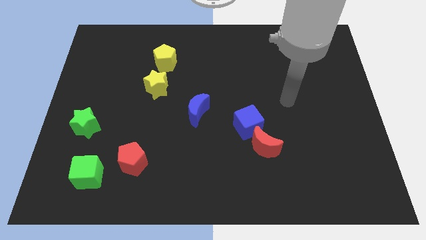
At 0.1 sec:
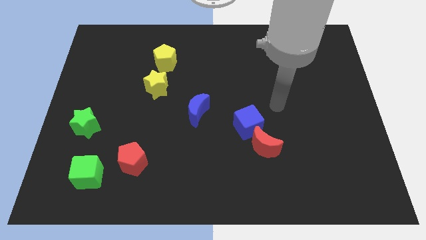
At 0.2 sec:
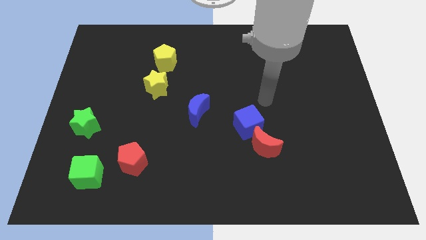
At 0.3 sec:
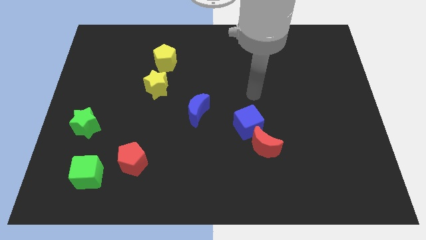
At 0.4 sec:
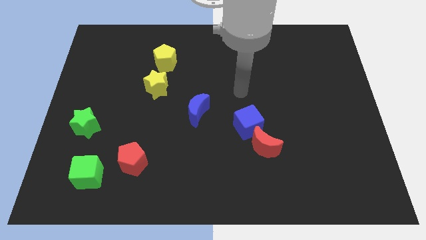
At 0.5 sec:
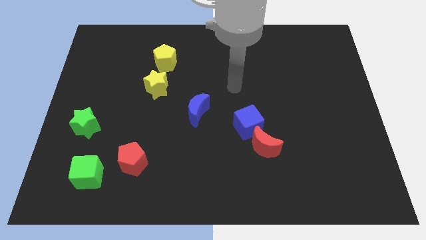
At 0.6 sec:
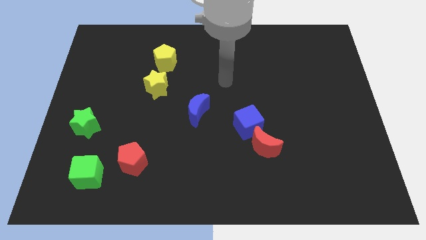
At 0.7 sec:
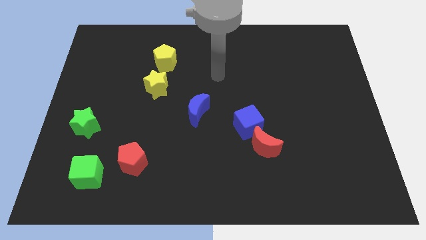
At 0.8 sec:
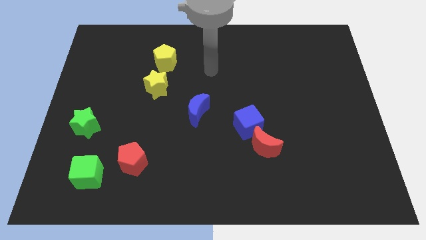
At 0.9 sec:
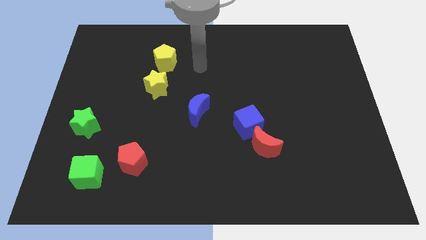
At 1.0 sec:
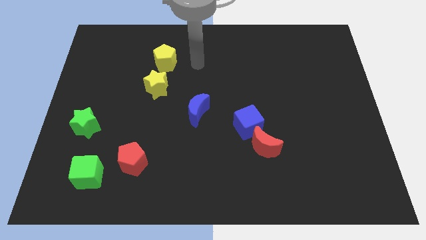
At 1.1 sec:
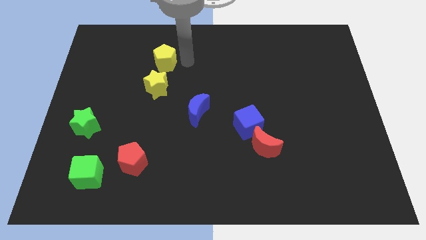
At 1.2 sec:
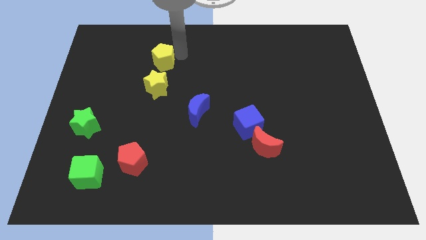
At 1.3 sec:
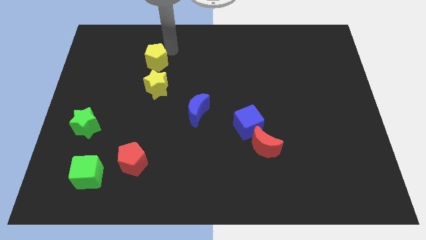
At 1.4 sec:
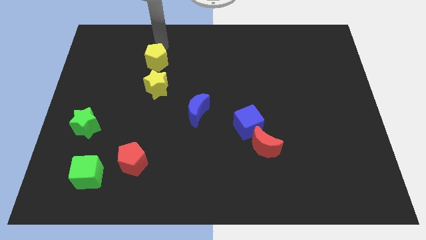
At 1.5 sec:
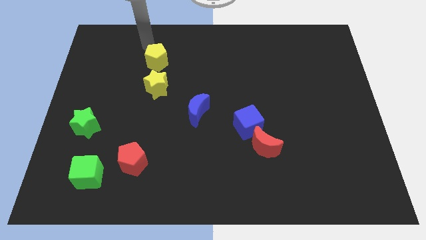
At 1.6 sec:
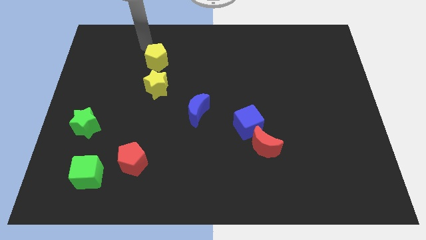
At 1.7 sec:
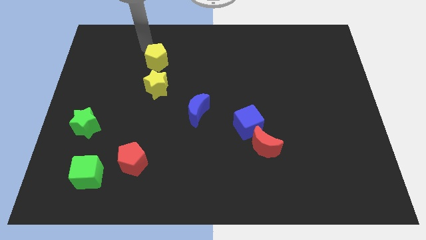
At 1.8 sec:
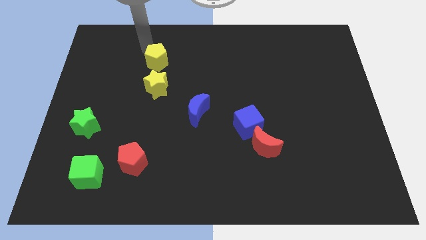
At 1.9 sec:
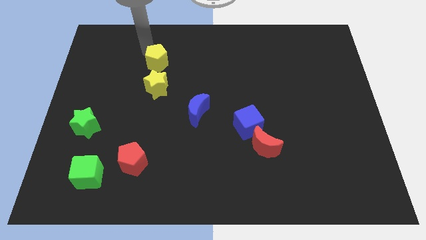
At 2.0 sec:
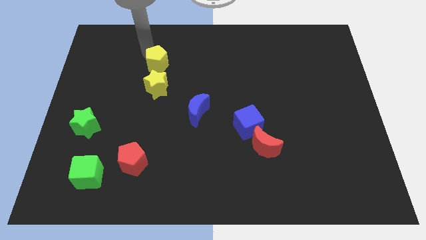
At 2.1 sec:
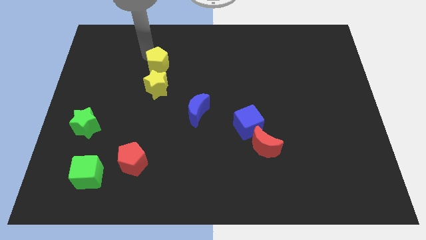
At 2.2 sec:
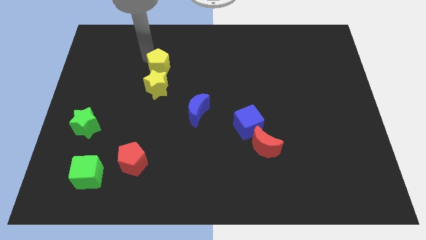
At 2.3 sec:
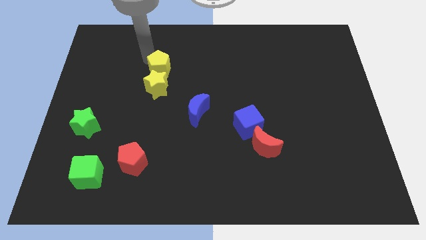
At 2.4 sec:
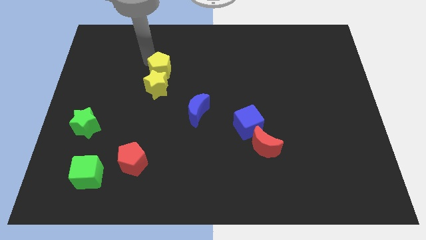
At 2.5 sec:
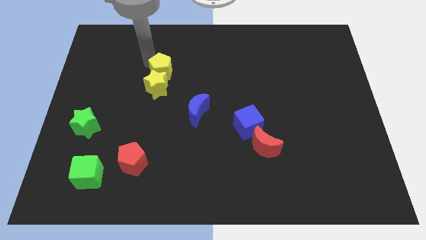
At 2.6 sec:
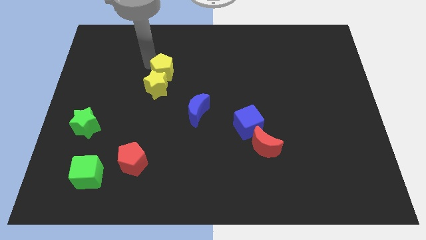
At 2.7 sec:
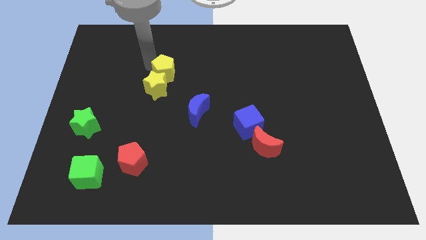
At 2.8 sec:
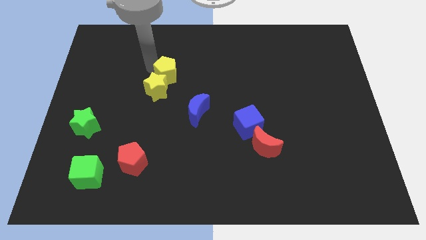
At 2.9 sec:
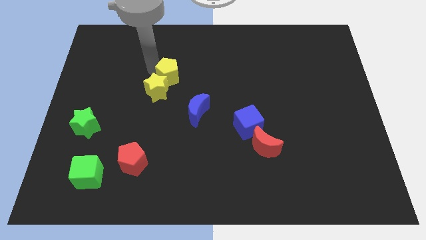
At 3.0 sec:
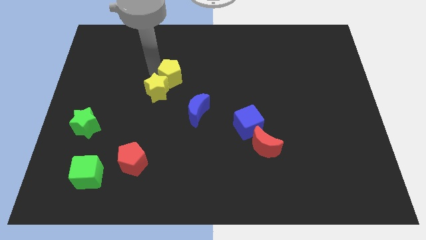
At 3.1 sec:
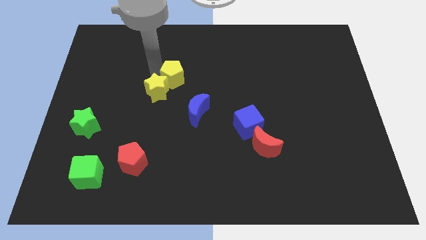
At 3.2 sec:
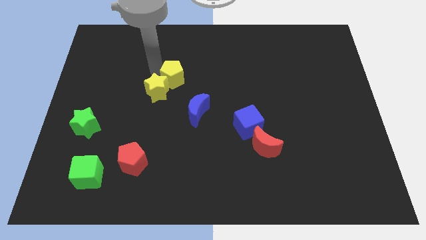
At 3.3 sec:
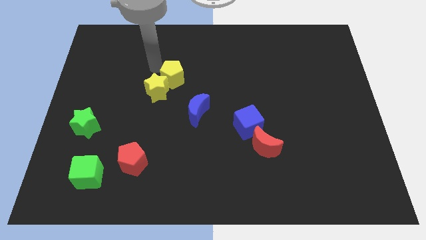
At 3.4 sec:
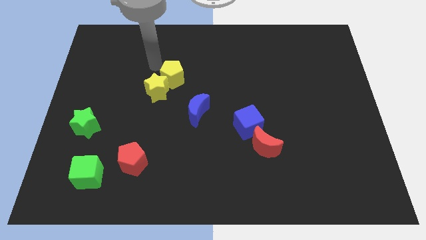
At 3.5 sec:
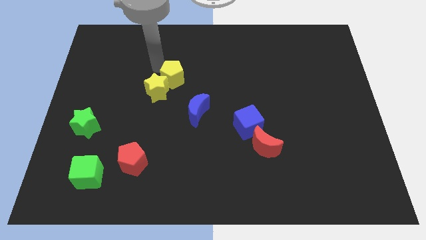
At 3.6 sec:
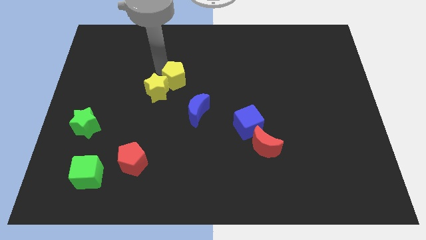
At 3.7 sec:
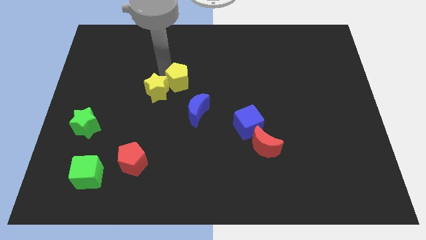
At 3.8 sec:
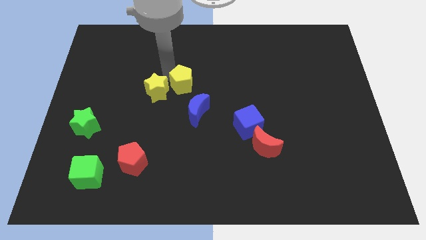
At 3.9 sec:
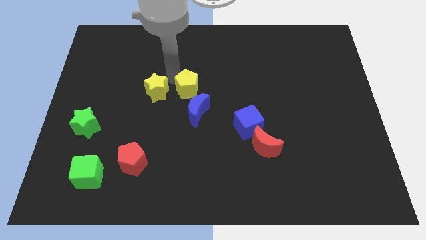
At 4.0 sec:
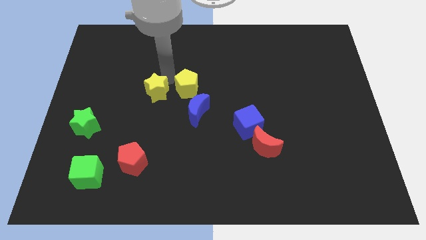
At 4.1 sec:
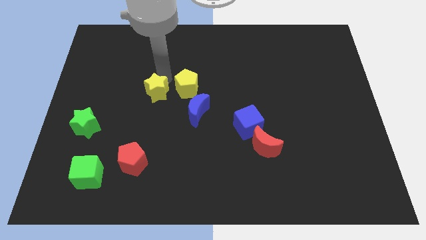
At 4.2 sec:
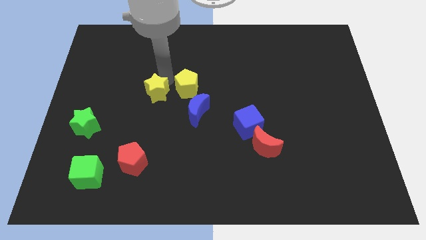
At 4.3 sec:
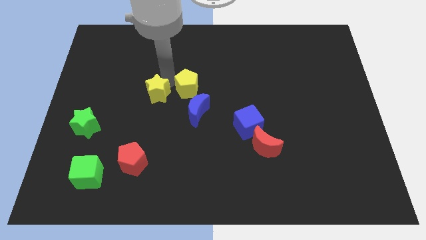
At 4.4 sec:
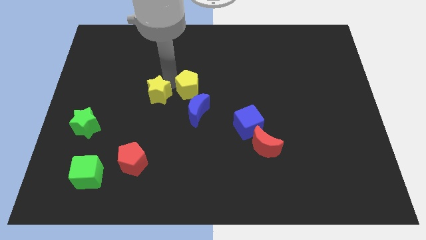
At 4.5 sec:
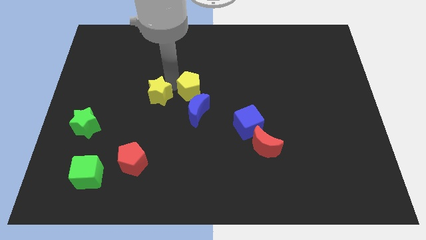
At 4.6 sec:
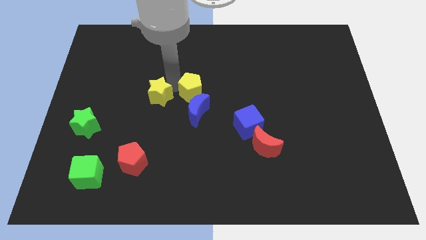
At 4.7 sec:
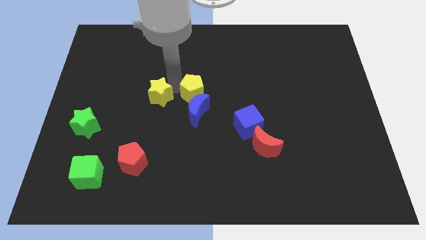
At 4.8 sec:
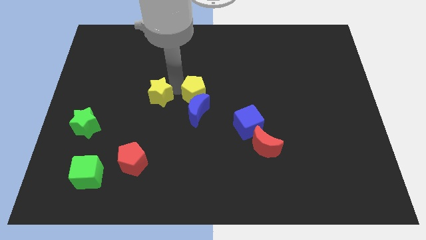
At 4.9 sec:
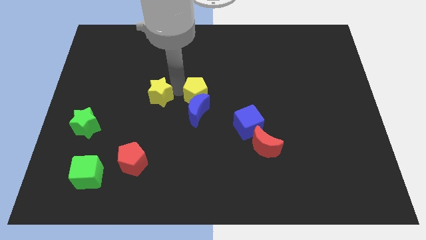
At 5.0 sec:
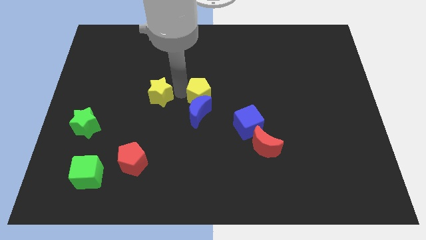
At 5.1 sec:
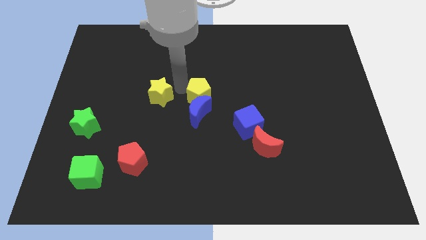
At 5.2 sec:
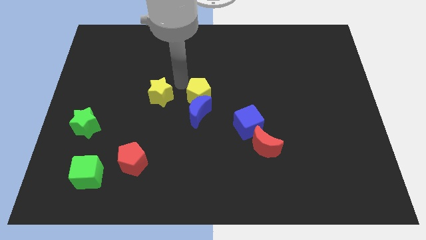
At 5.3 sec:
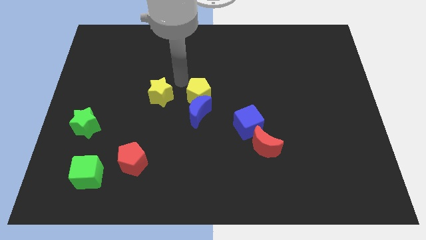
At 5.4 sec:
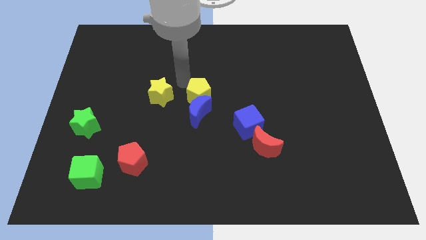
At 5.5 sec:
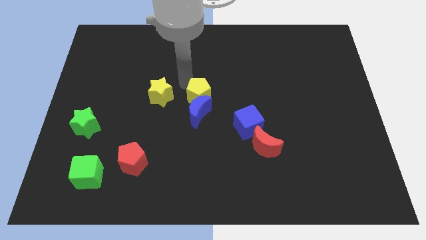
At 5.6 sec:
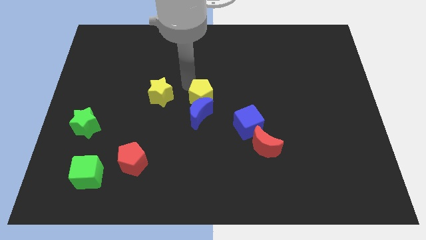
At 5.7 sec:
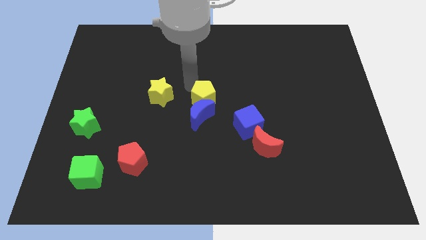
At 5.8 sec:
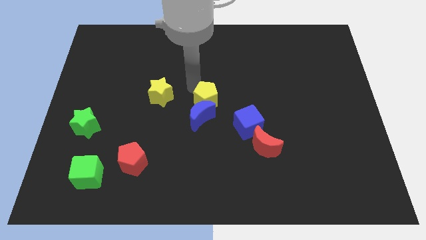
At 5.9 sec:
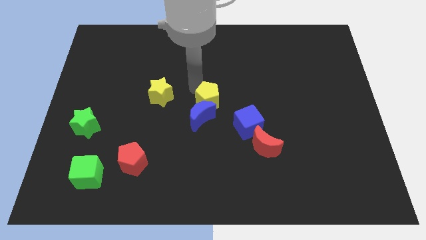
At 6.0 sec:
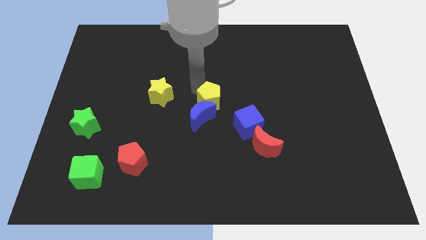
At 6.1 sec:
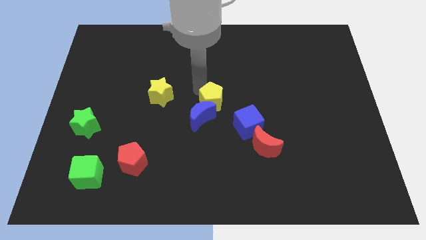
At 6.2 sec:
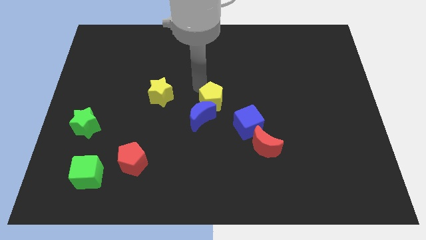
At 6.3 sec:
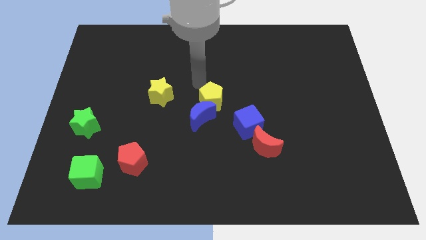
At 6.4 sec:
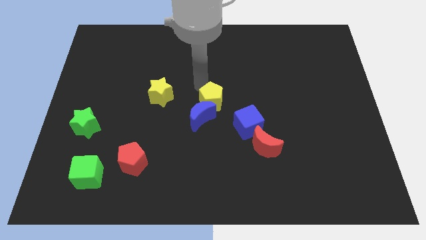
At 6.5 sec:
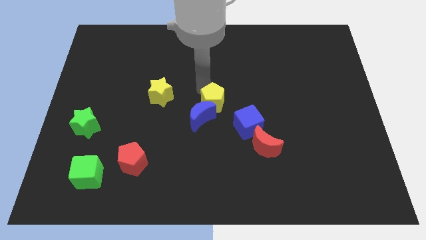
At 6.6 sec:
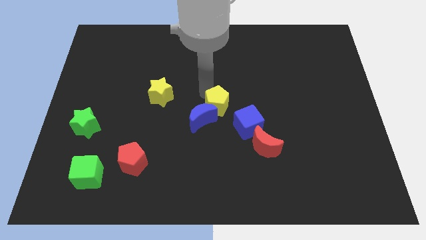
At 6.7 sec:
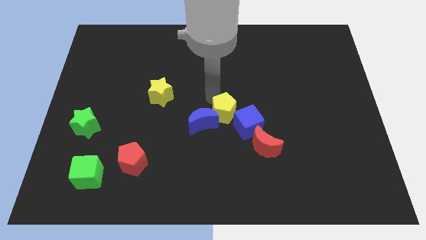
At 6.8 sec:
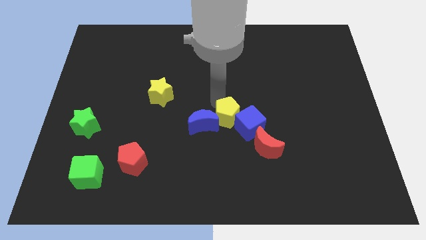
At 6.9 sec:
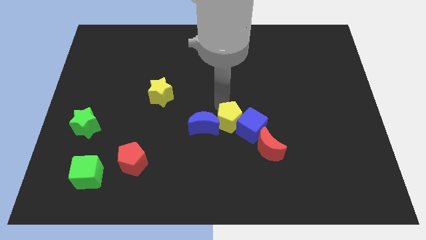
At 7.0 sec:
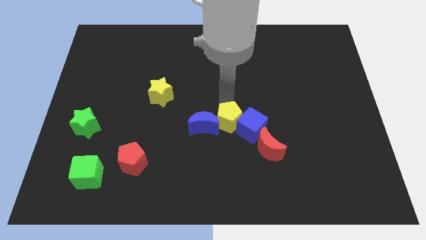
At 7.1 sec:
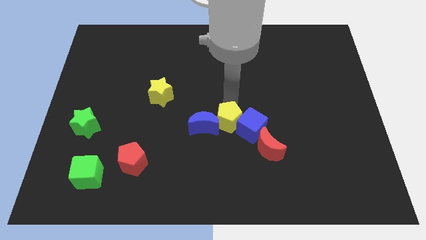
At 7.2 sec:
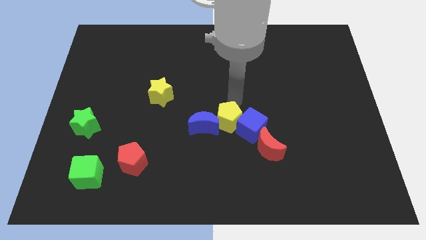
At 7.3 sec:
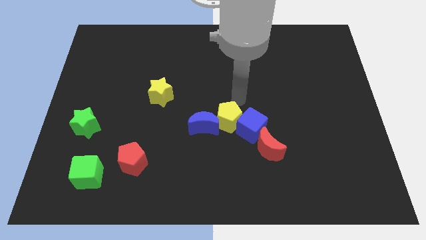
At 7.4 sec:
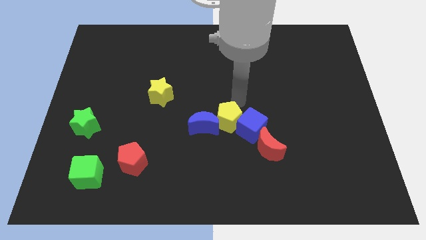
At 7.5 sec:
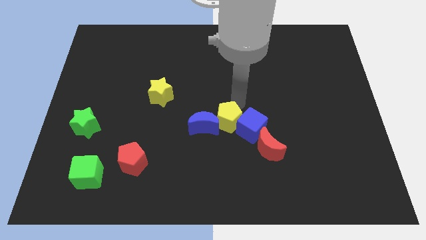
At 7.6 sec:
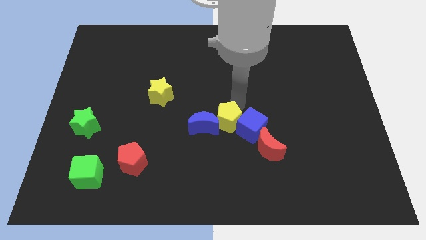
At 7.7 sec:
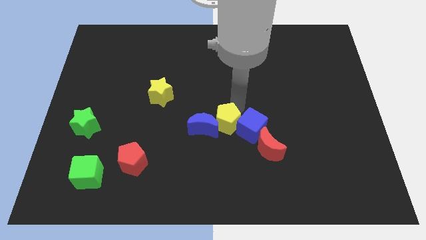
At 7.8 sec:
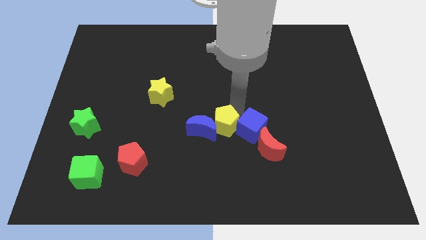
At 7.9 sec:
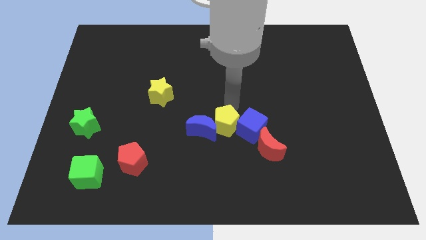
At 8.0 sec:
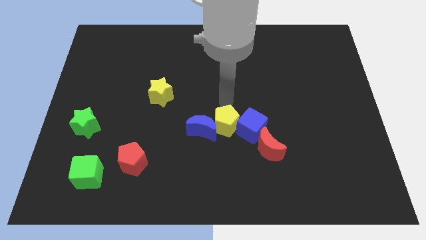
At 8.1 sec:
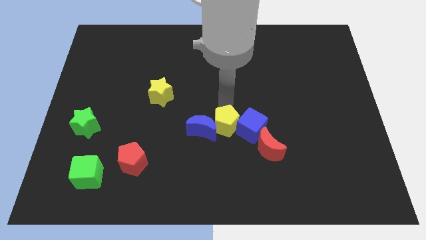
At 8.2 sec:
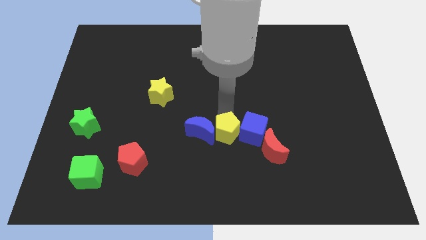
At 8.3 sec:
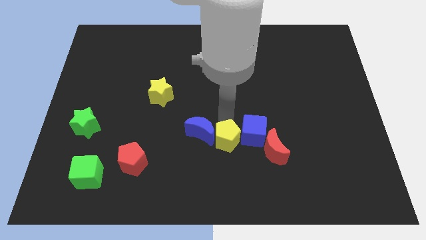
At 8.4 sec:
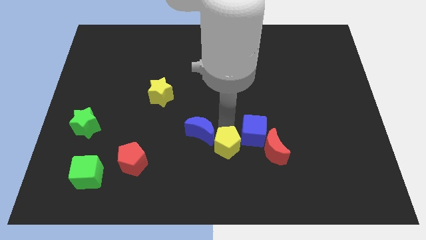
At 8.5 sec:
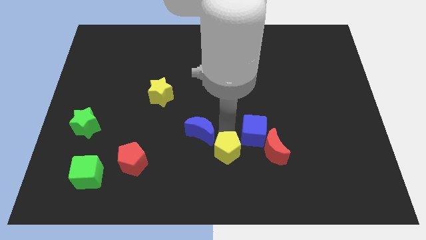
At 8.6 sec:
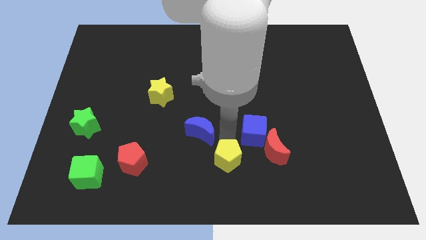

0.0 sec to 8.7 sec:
move the yellow pentagon to the bottom side
